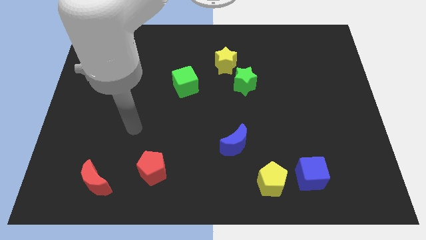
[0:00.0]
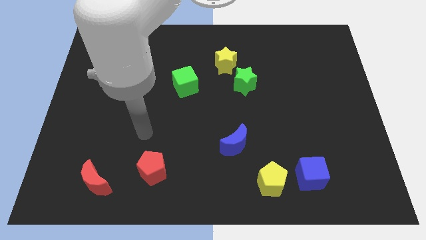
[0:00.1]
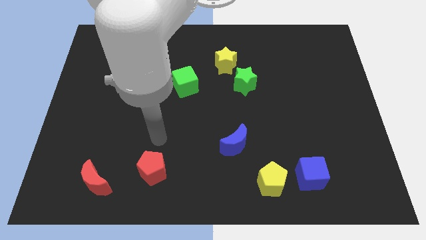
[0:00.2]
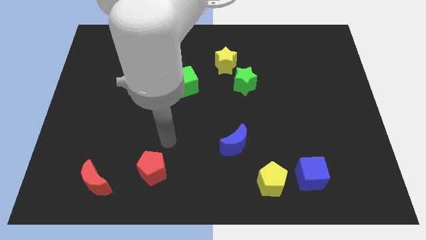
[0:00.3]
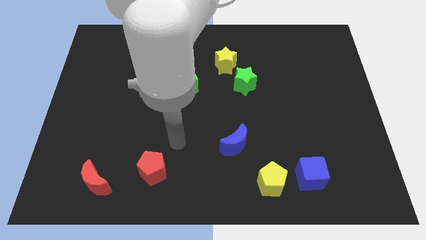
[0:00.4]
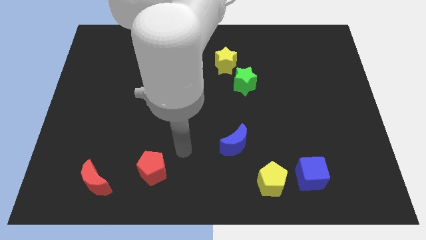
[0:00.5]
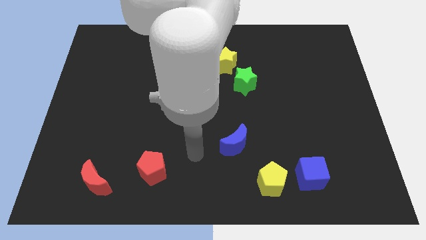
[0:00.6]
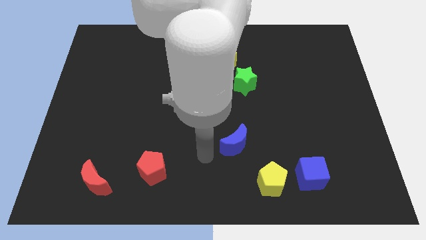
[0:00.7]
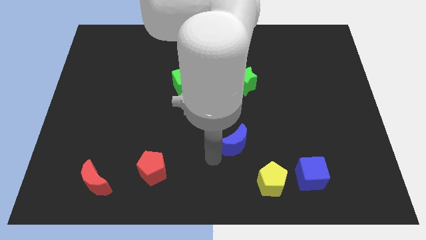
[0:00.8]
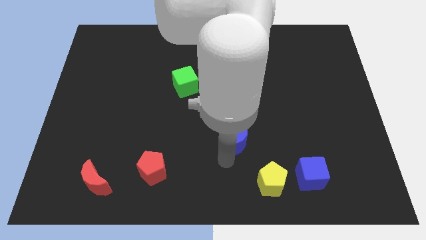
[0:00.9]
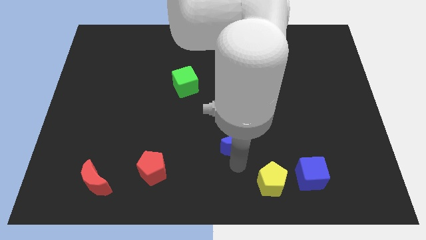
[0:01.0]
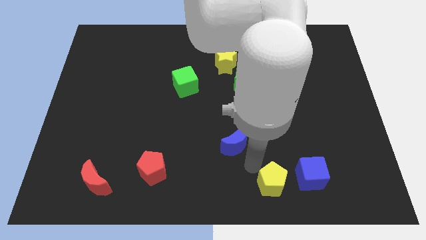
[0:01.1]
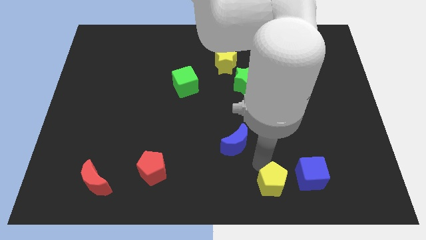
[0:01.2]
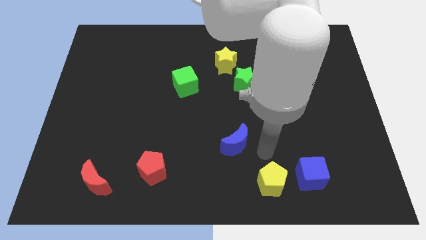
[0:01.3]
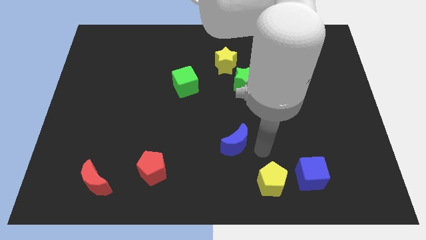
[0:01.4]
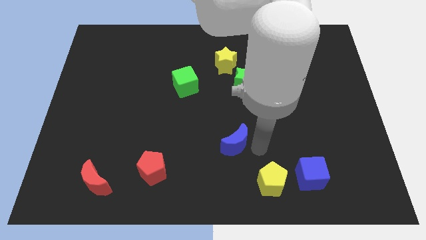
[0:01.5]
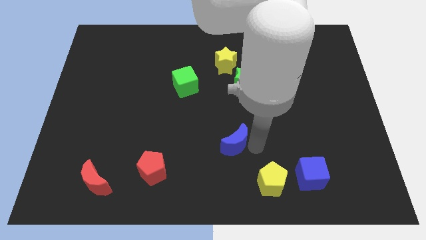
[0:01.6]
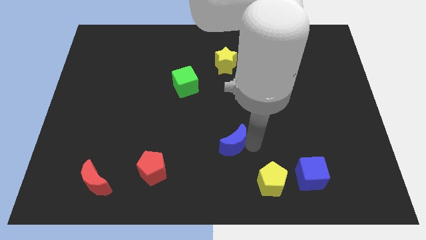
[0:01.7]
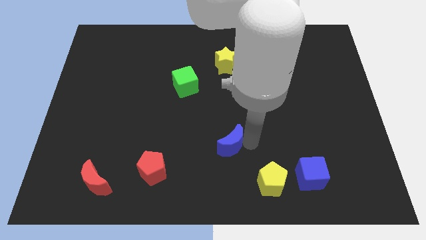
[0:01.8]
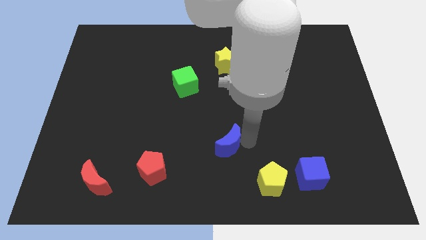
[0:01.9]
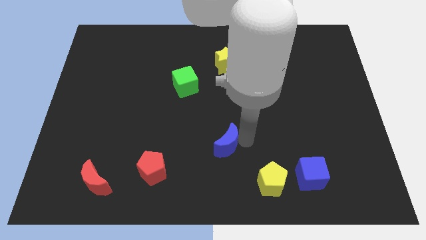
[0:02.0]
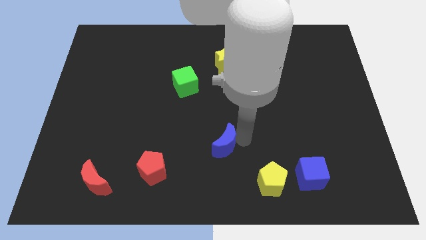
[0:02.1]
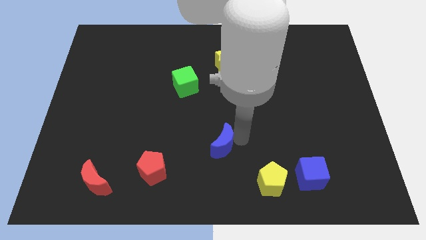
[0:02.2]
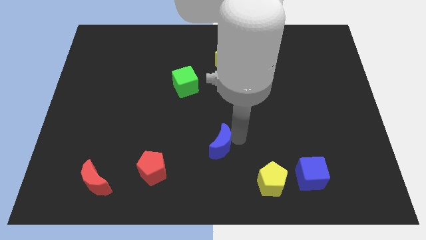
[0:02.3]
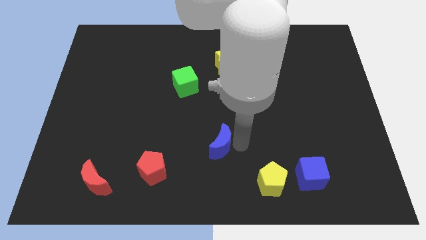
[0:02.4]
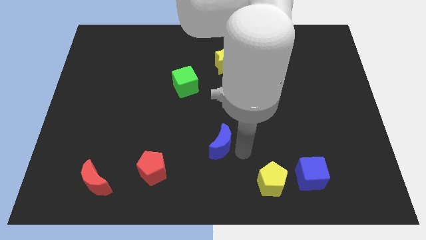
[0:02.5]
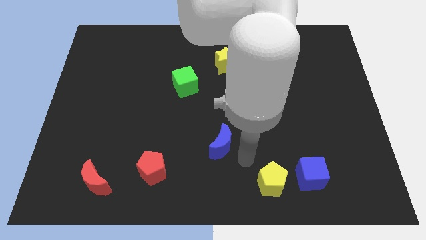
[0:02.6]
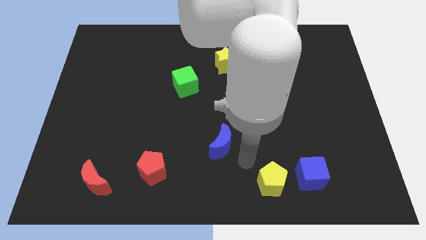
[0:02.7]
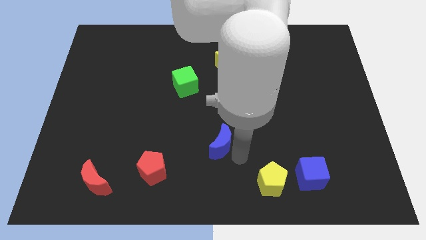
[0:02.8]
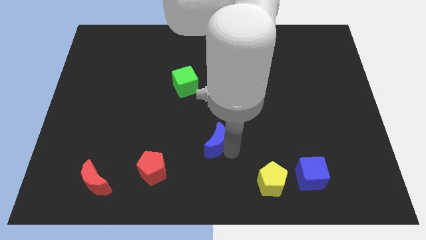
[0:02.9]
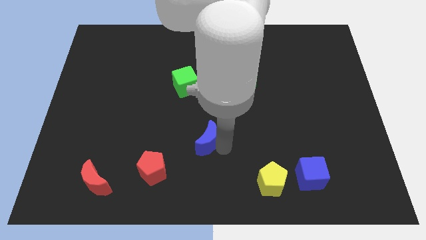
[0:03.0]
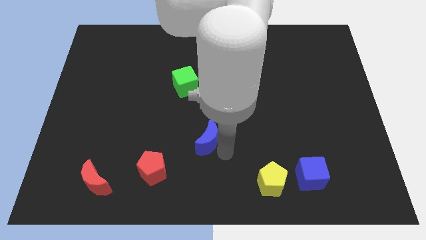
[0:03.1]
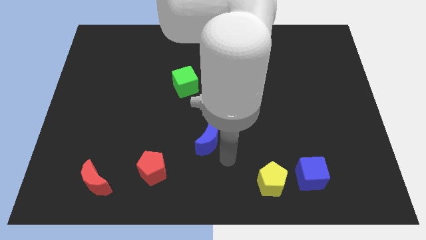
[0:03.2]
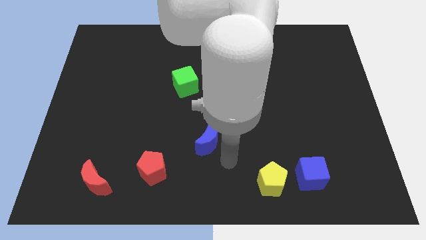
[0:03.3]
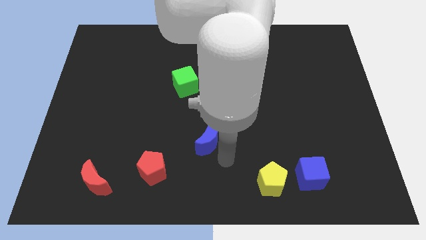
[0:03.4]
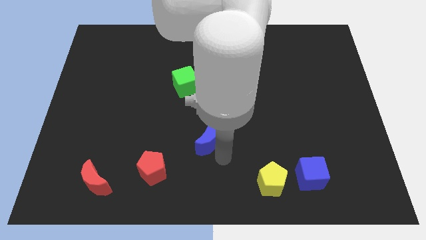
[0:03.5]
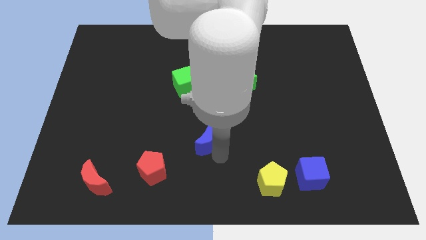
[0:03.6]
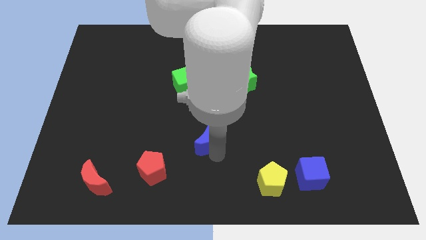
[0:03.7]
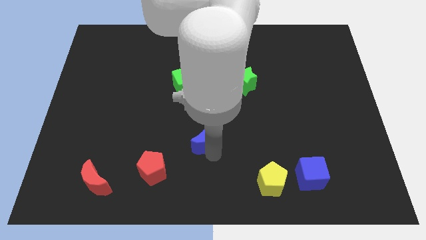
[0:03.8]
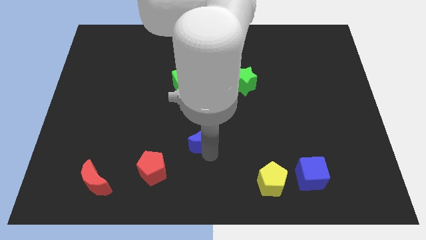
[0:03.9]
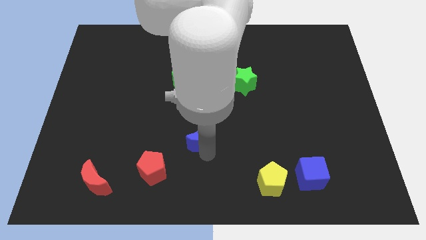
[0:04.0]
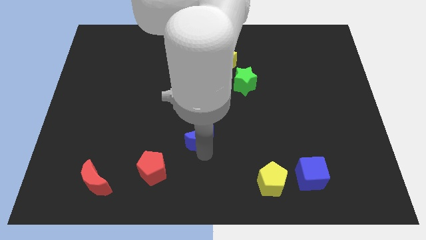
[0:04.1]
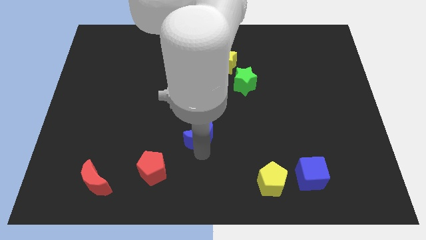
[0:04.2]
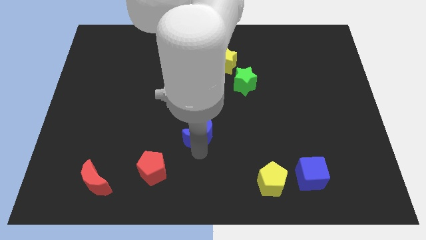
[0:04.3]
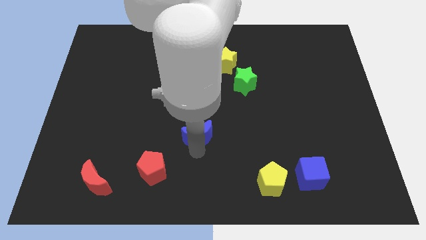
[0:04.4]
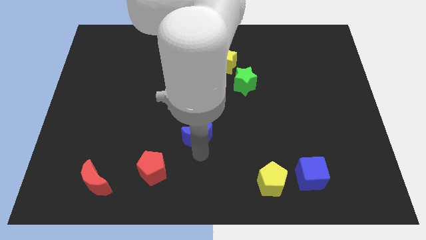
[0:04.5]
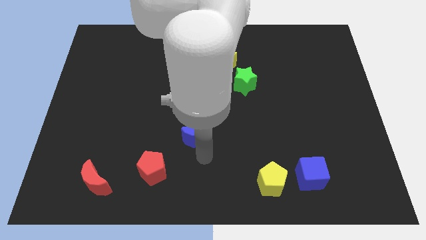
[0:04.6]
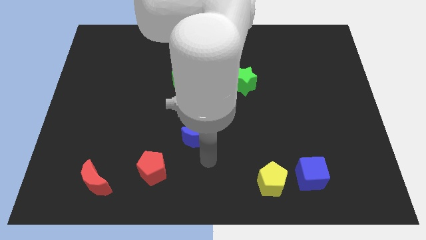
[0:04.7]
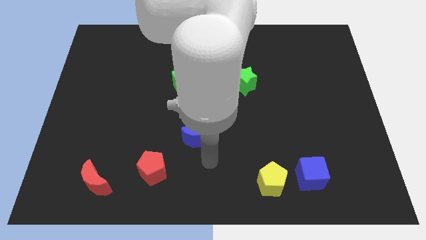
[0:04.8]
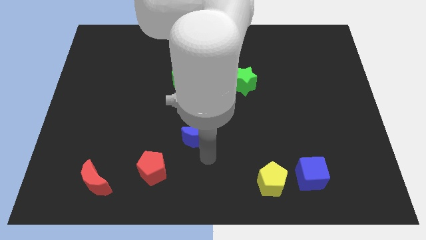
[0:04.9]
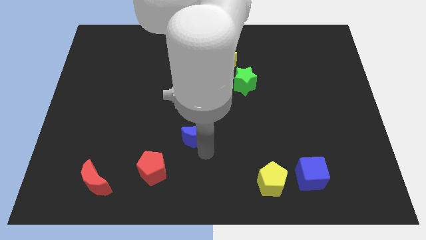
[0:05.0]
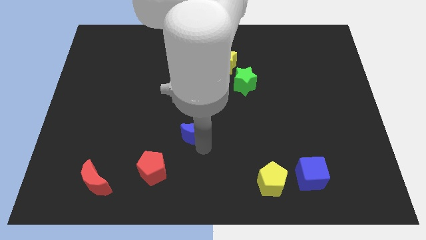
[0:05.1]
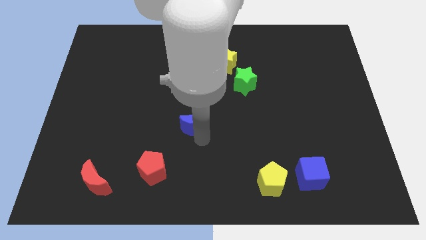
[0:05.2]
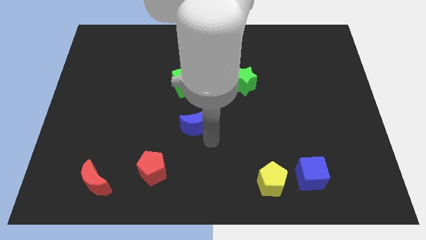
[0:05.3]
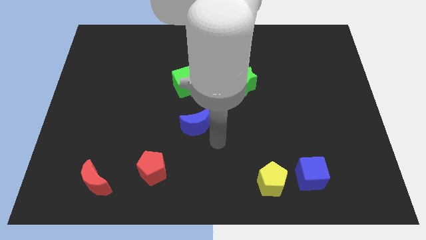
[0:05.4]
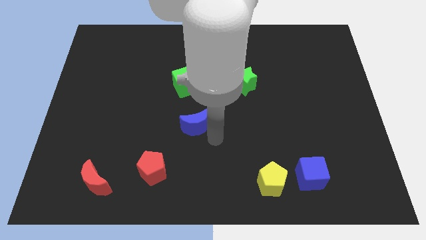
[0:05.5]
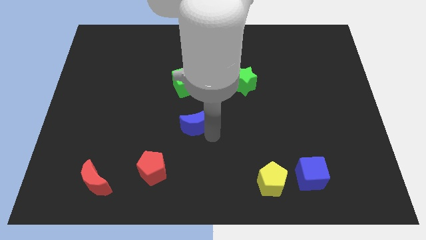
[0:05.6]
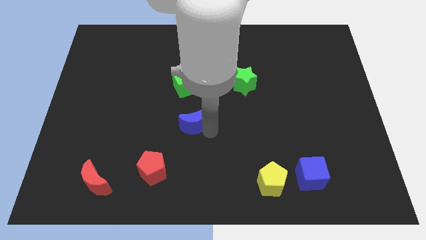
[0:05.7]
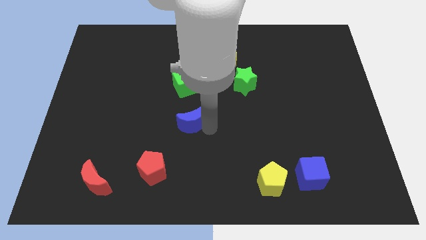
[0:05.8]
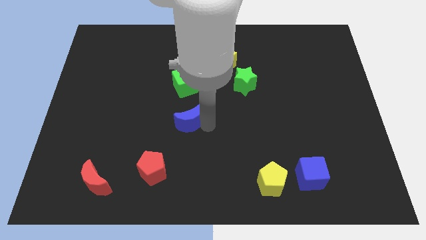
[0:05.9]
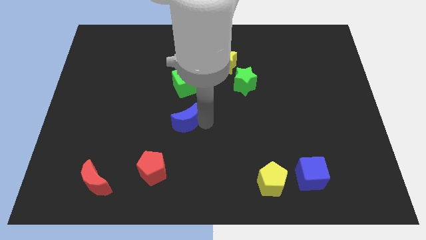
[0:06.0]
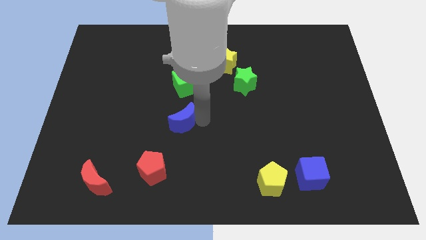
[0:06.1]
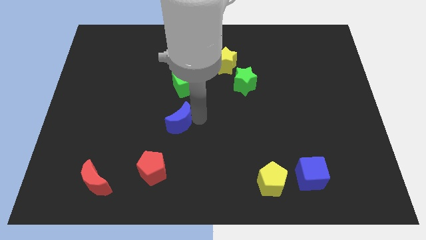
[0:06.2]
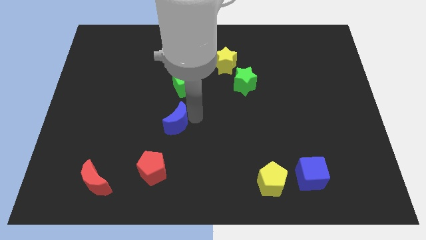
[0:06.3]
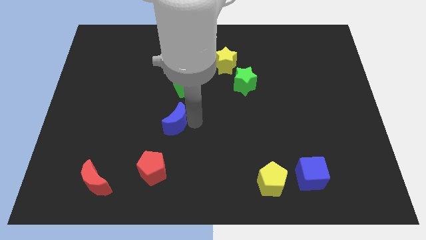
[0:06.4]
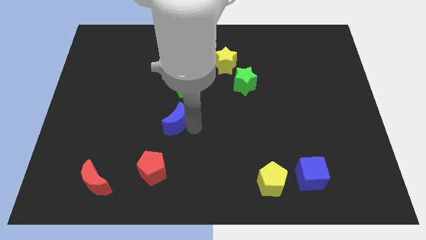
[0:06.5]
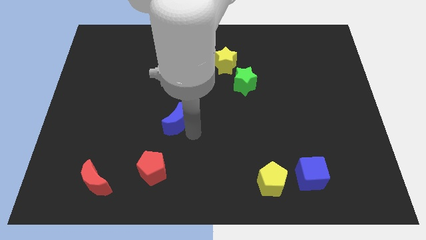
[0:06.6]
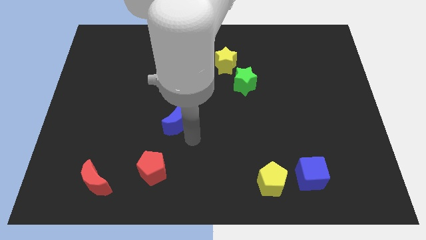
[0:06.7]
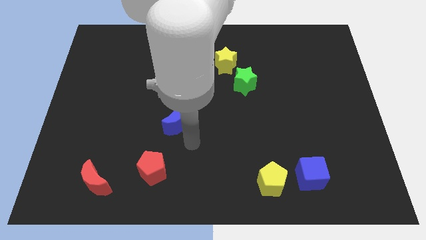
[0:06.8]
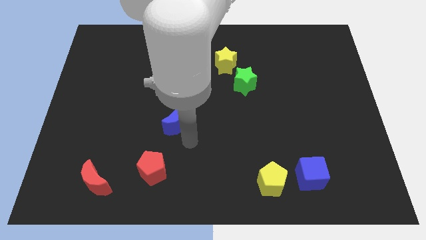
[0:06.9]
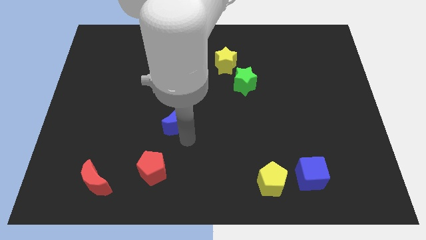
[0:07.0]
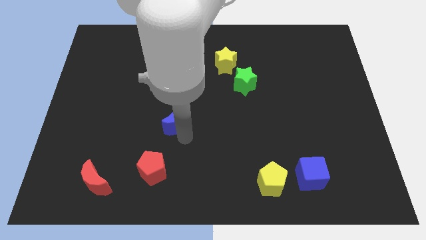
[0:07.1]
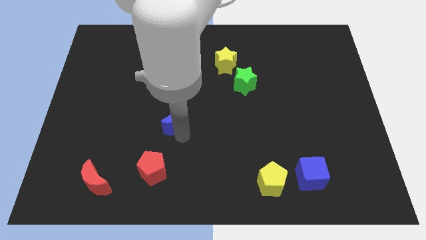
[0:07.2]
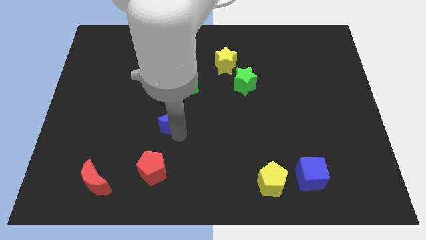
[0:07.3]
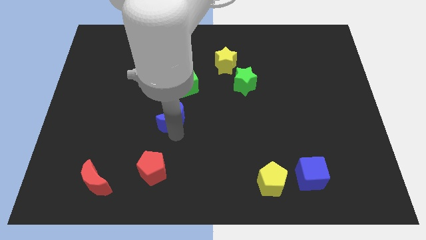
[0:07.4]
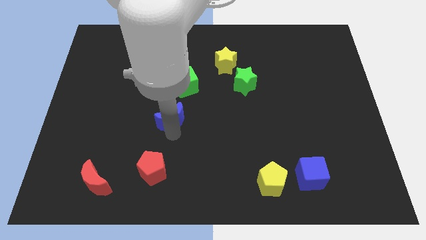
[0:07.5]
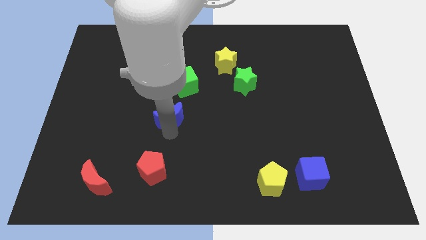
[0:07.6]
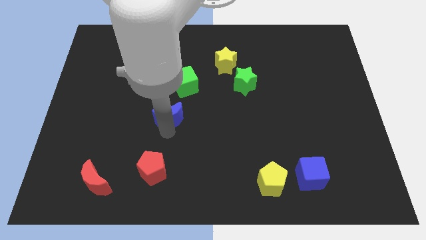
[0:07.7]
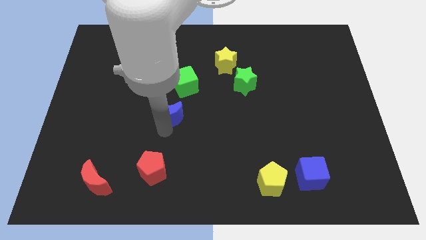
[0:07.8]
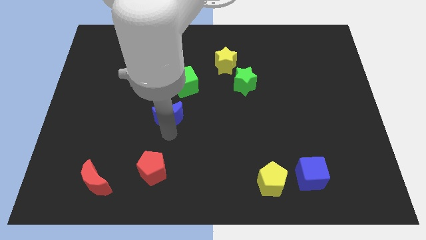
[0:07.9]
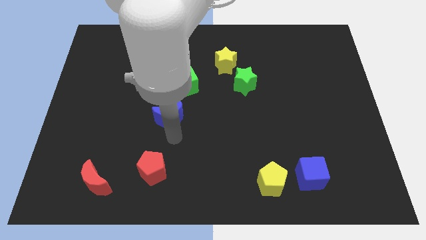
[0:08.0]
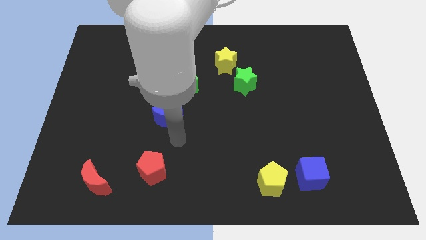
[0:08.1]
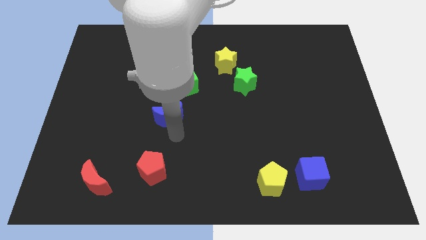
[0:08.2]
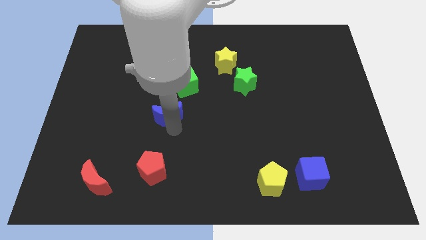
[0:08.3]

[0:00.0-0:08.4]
move the blue moon to the bottom left of the green cube
